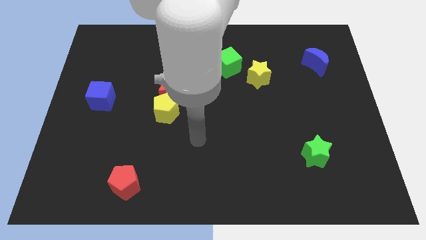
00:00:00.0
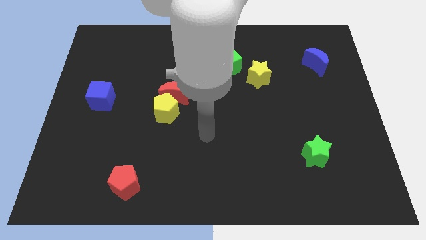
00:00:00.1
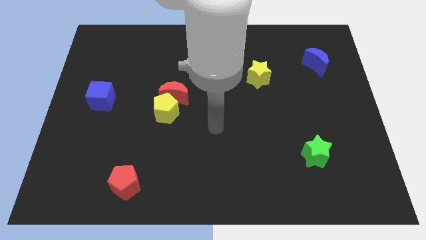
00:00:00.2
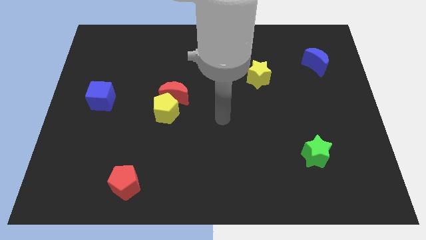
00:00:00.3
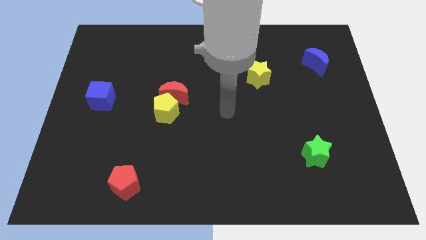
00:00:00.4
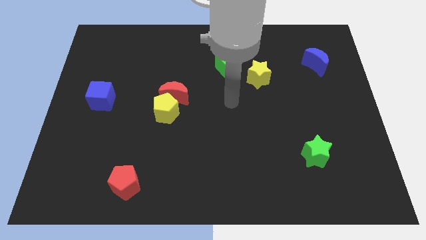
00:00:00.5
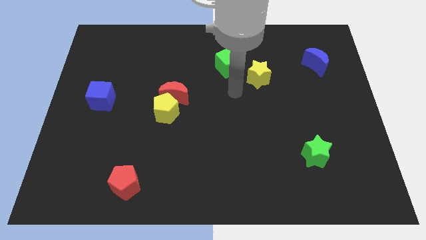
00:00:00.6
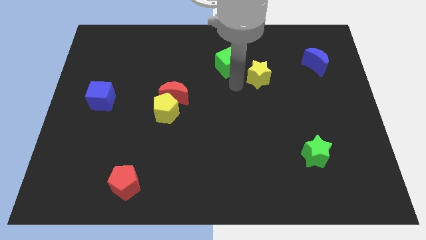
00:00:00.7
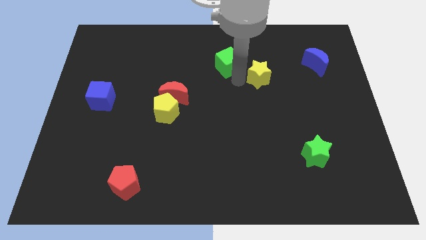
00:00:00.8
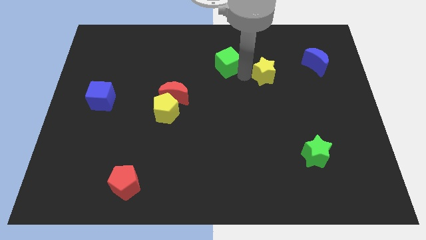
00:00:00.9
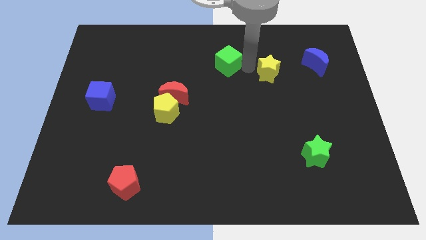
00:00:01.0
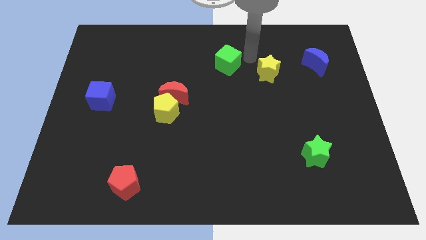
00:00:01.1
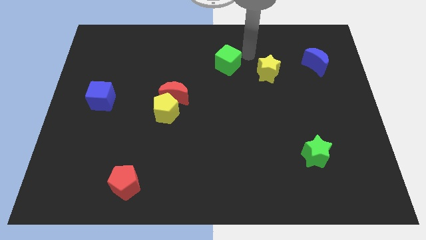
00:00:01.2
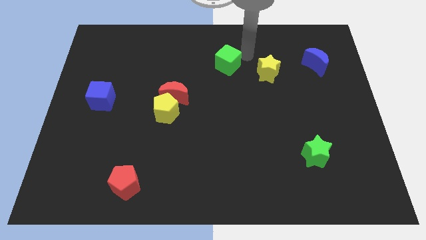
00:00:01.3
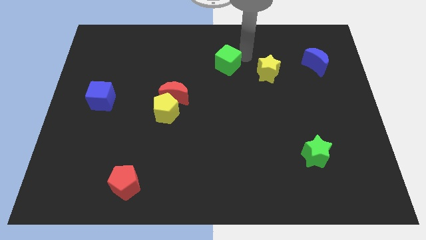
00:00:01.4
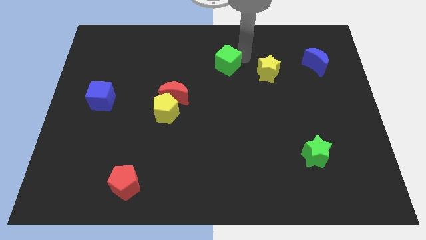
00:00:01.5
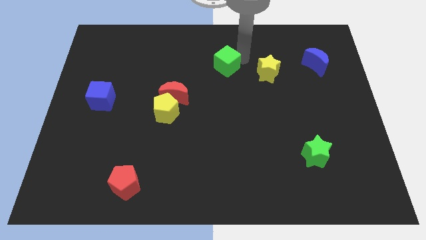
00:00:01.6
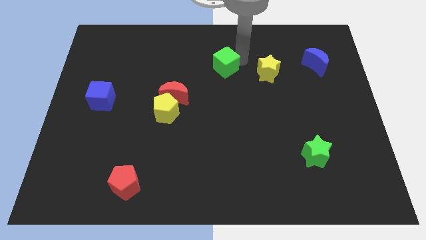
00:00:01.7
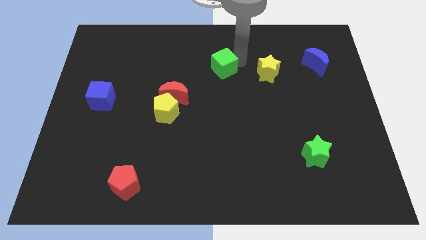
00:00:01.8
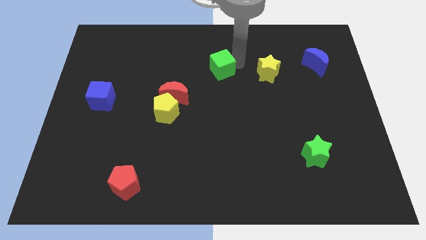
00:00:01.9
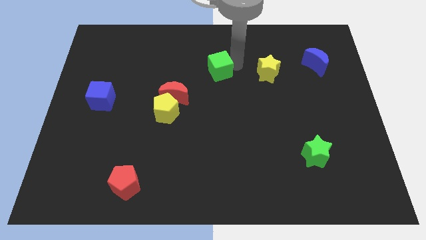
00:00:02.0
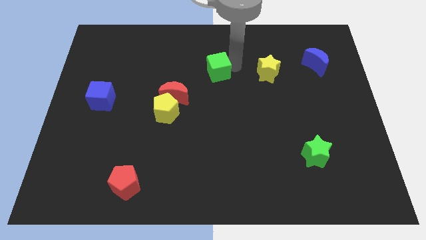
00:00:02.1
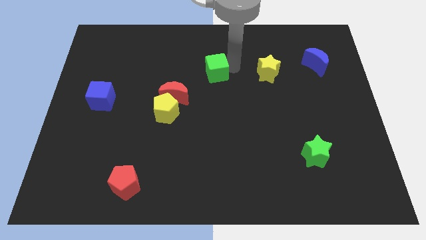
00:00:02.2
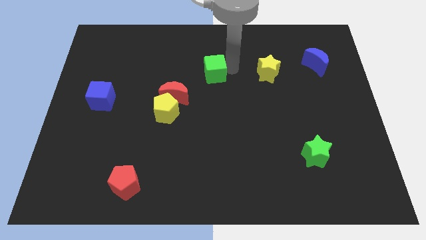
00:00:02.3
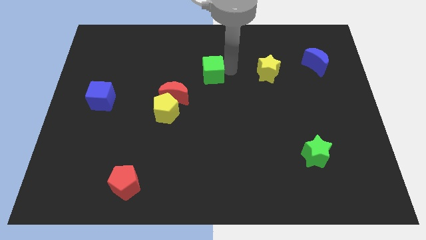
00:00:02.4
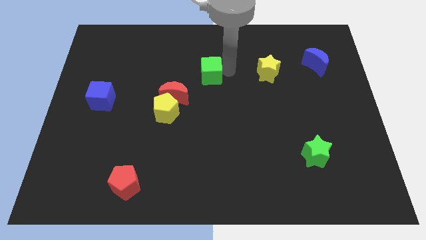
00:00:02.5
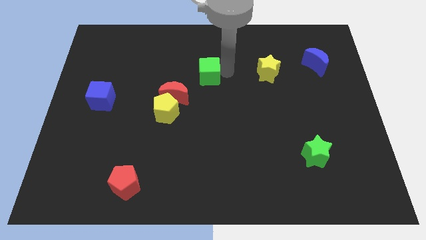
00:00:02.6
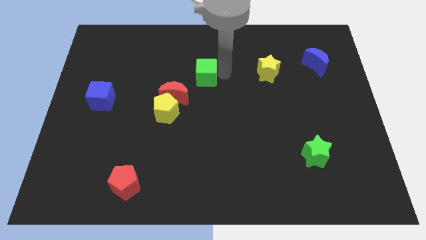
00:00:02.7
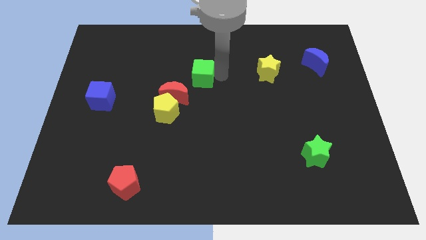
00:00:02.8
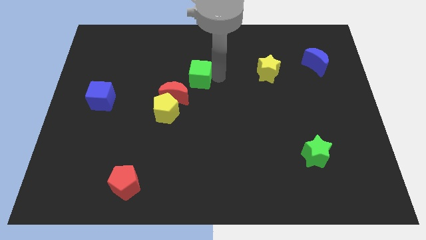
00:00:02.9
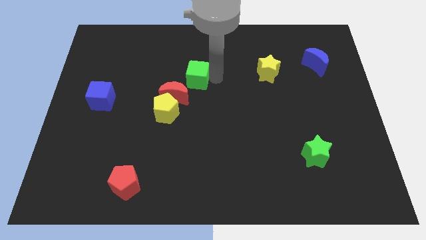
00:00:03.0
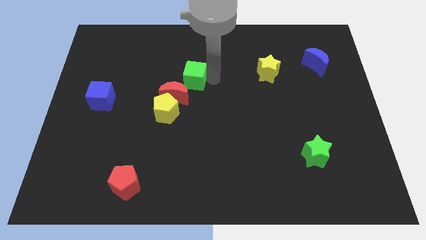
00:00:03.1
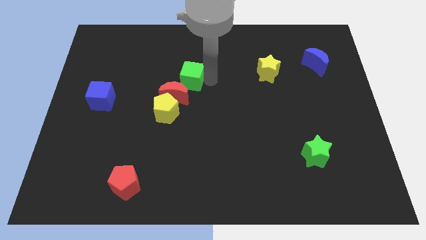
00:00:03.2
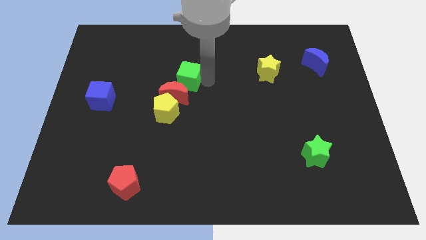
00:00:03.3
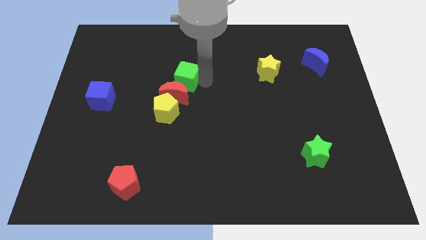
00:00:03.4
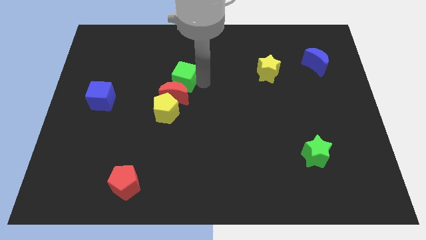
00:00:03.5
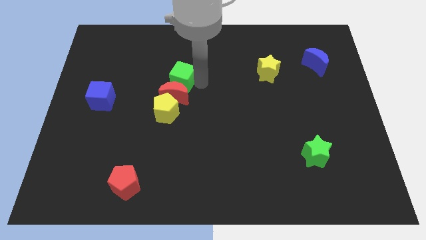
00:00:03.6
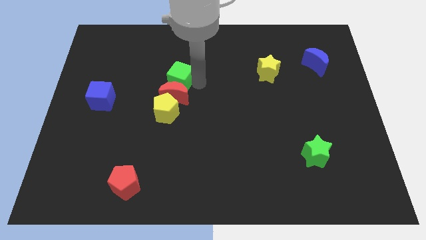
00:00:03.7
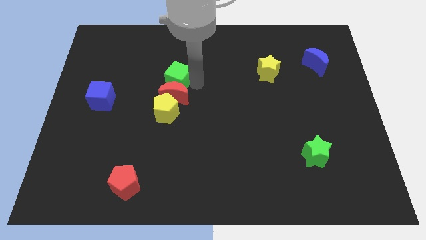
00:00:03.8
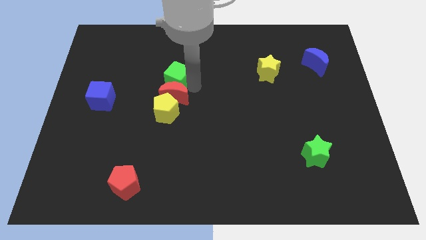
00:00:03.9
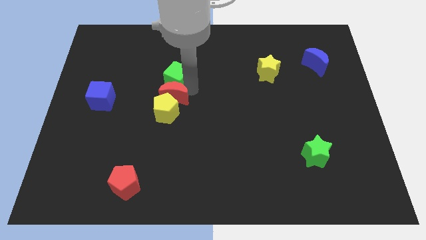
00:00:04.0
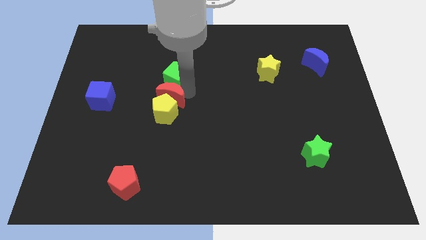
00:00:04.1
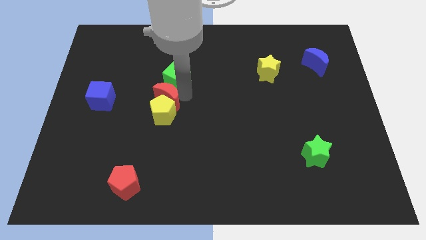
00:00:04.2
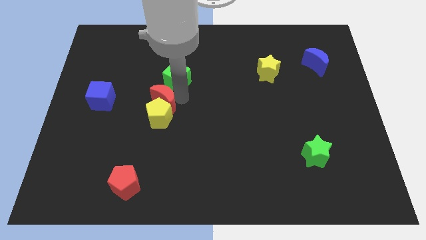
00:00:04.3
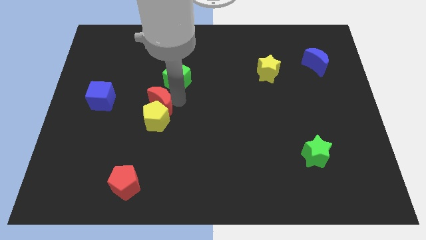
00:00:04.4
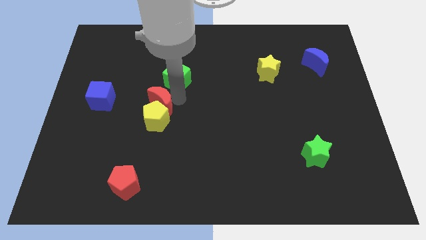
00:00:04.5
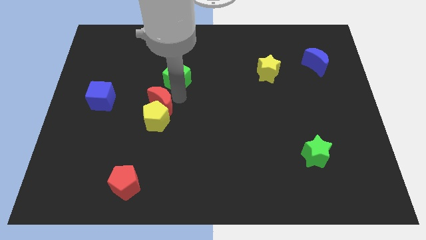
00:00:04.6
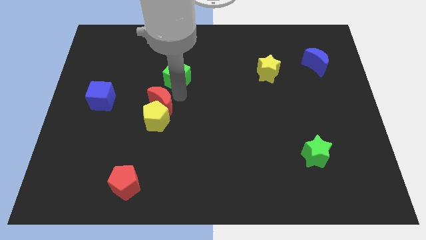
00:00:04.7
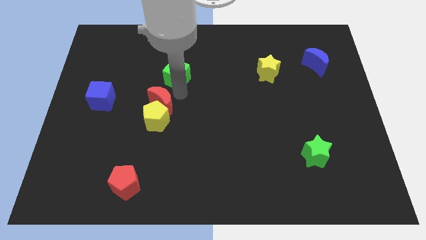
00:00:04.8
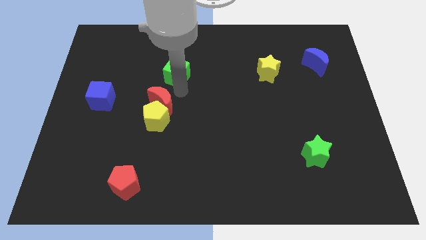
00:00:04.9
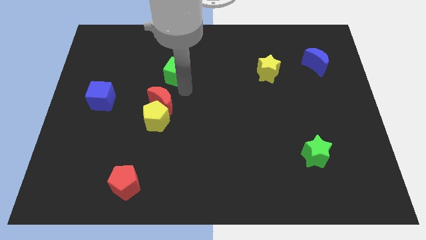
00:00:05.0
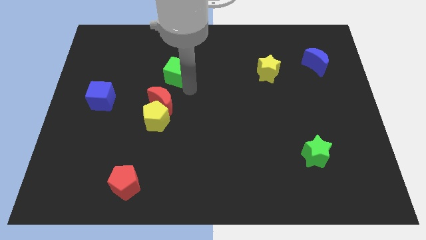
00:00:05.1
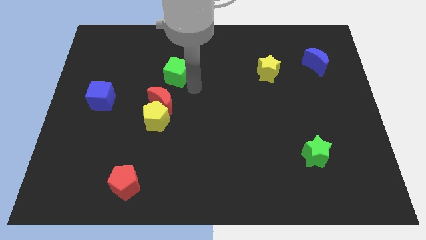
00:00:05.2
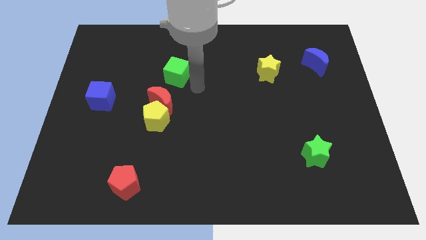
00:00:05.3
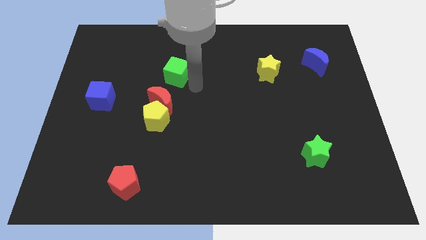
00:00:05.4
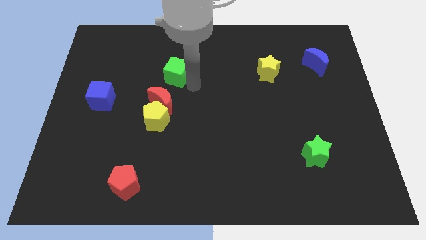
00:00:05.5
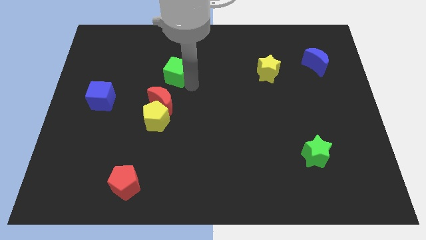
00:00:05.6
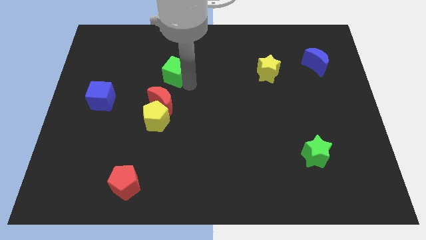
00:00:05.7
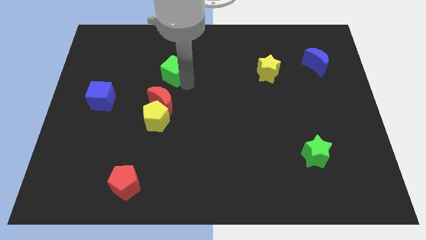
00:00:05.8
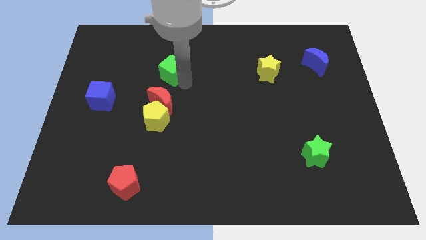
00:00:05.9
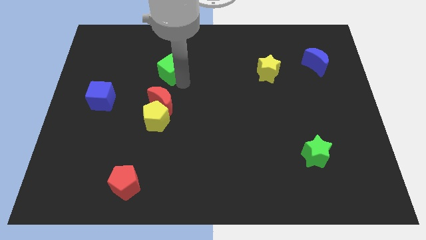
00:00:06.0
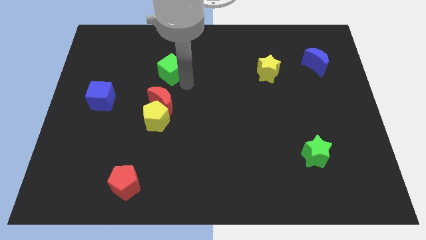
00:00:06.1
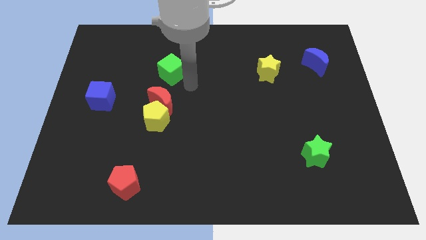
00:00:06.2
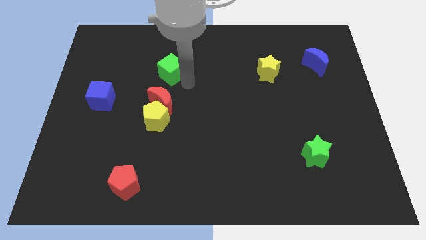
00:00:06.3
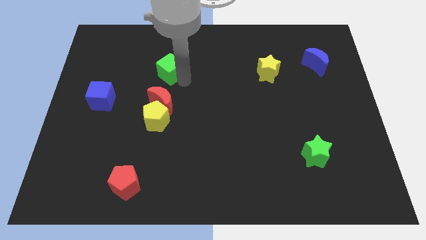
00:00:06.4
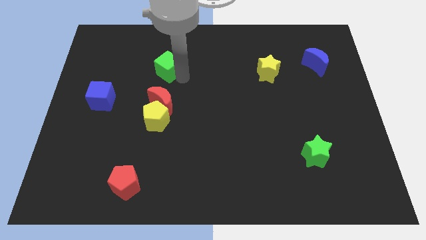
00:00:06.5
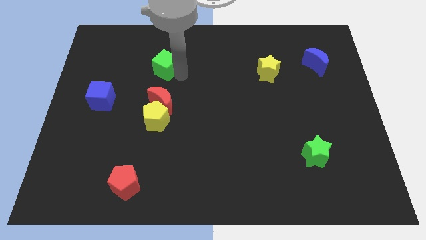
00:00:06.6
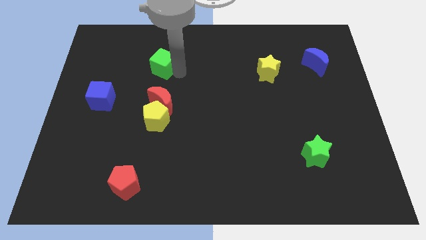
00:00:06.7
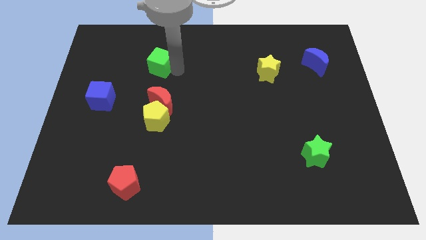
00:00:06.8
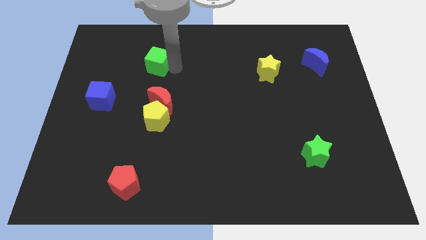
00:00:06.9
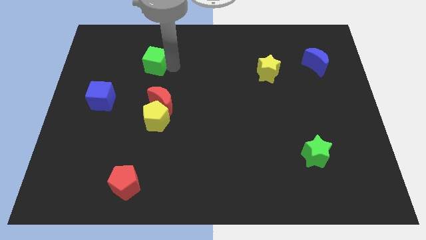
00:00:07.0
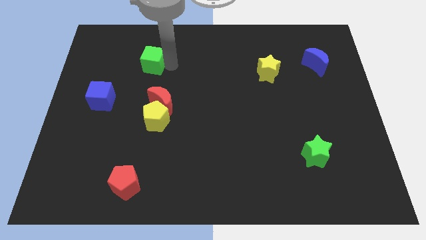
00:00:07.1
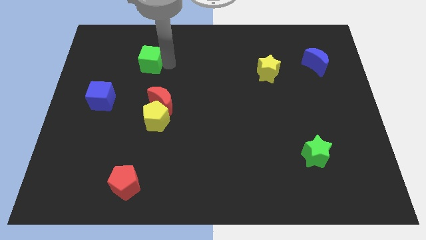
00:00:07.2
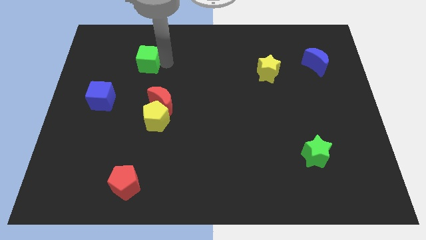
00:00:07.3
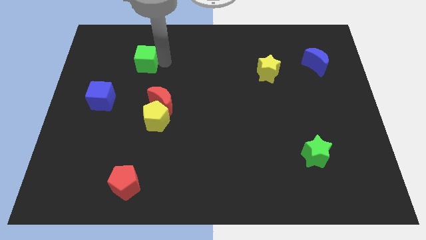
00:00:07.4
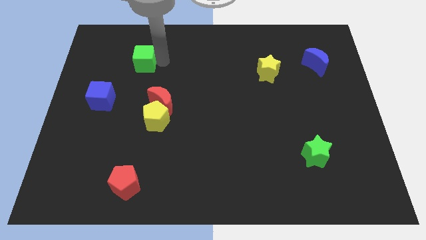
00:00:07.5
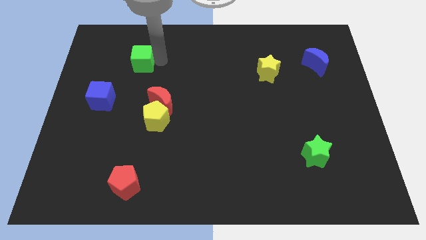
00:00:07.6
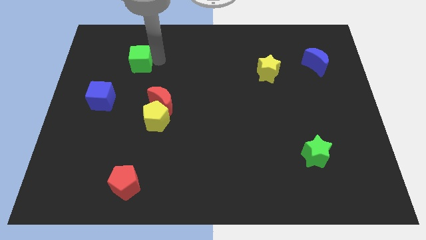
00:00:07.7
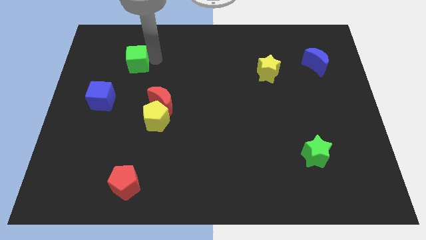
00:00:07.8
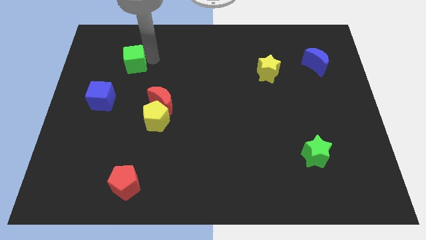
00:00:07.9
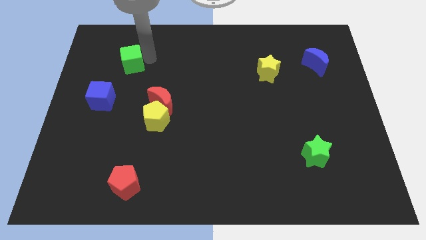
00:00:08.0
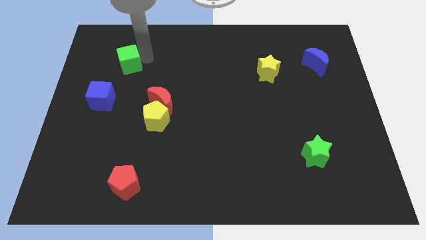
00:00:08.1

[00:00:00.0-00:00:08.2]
move the green cube to the top side of the blue cube
